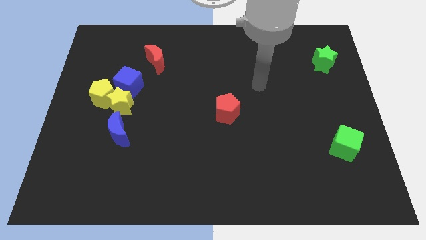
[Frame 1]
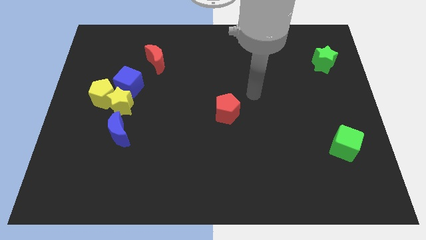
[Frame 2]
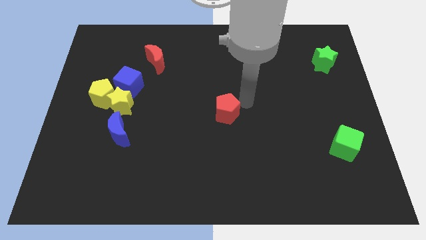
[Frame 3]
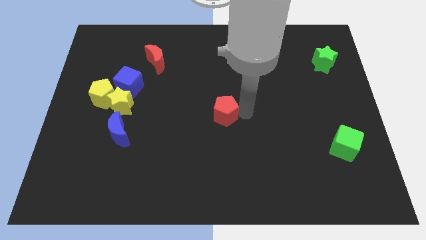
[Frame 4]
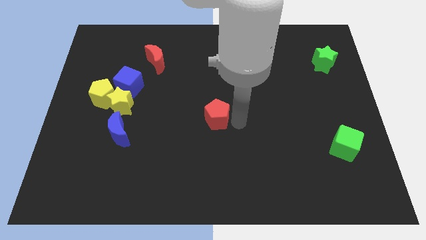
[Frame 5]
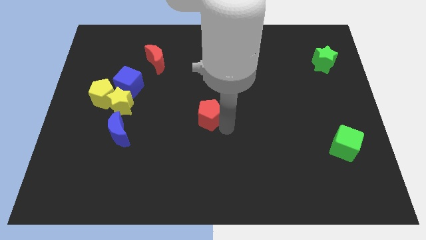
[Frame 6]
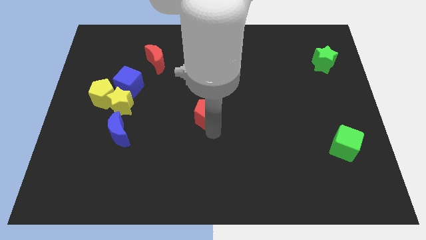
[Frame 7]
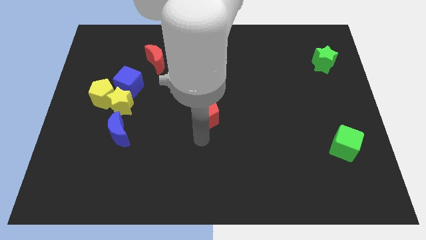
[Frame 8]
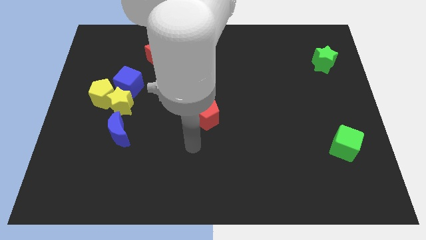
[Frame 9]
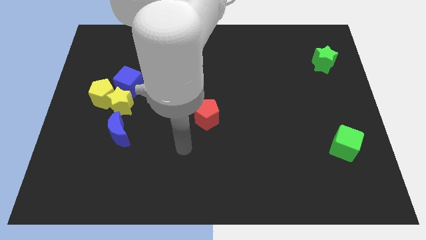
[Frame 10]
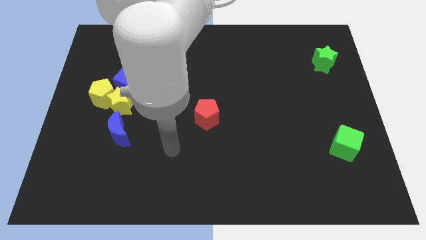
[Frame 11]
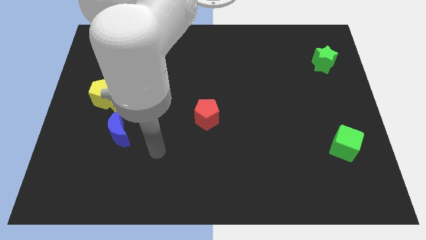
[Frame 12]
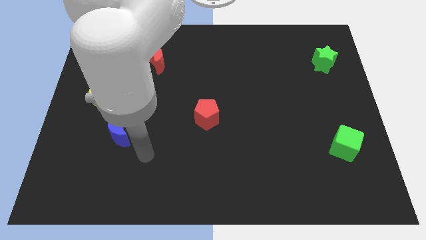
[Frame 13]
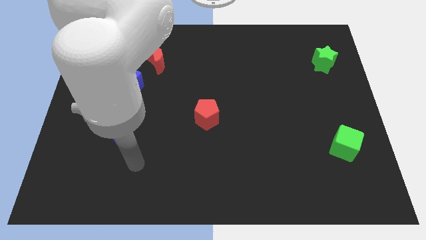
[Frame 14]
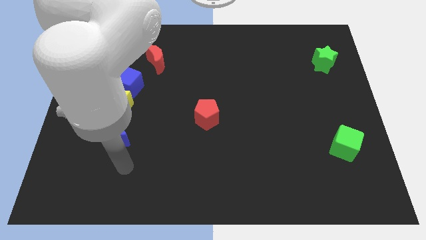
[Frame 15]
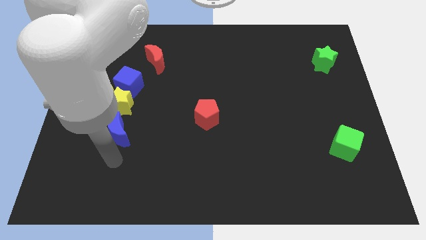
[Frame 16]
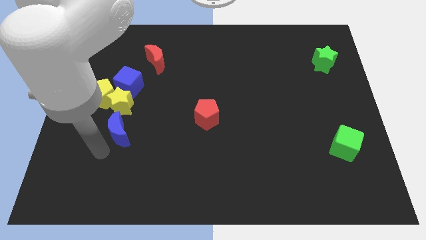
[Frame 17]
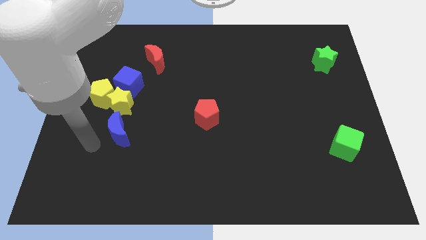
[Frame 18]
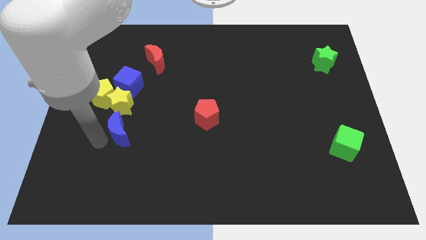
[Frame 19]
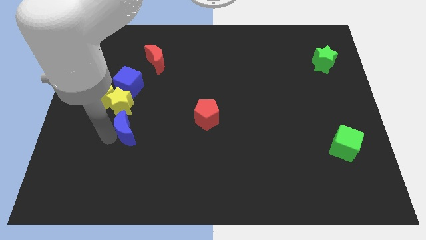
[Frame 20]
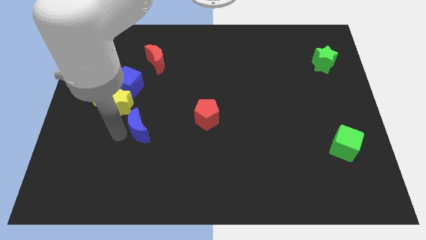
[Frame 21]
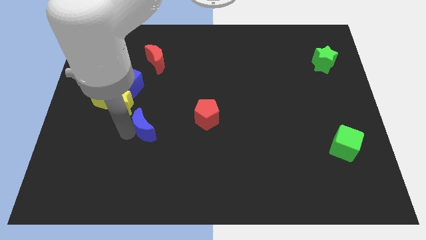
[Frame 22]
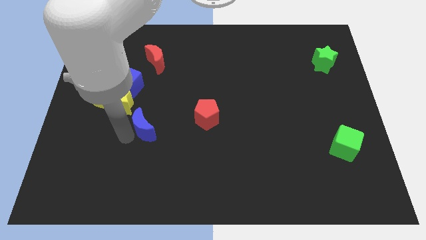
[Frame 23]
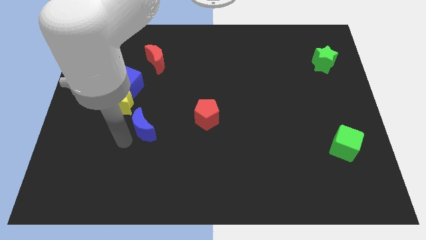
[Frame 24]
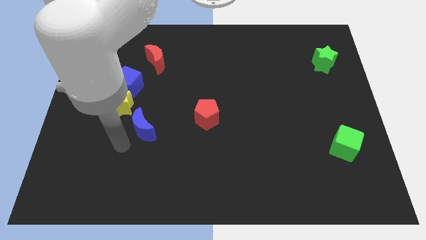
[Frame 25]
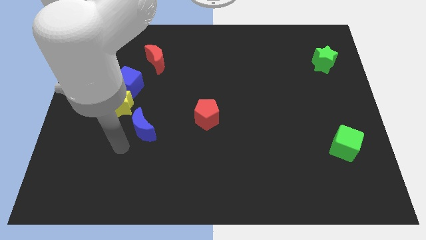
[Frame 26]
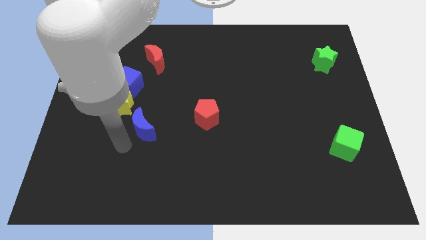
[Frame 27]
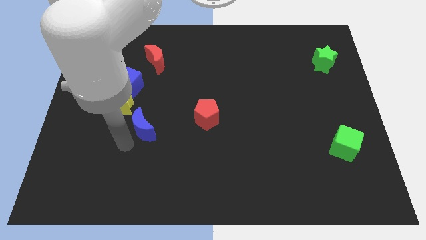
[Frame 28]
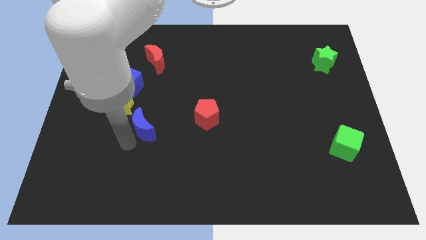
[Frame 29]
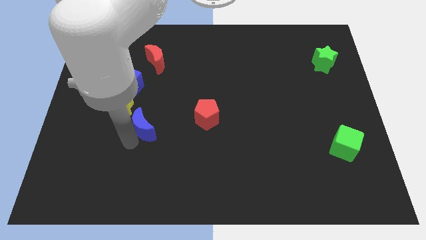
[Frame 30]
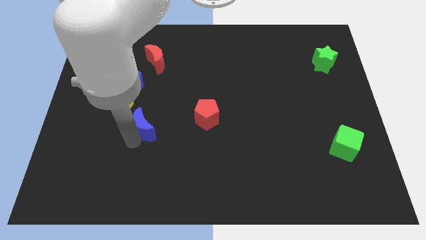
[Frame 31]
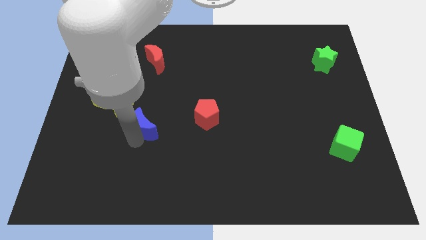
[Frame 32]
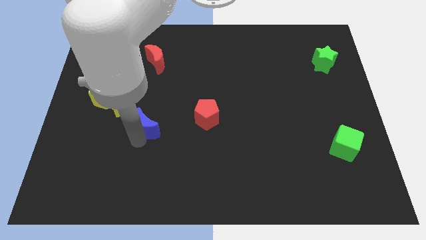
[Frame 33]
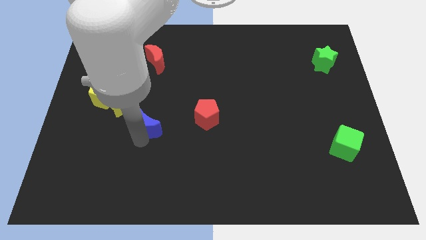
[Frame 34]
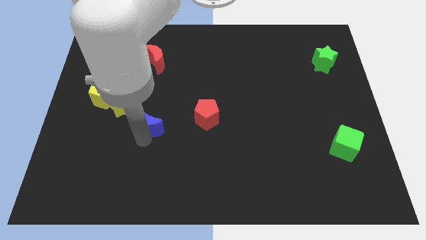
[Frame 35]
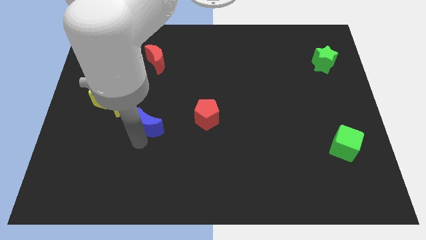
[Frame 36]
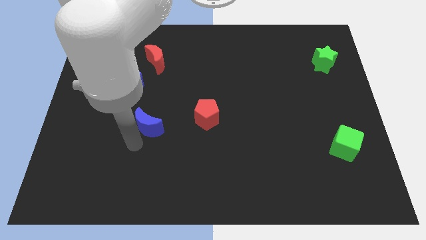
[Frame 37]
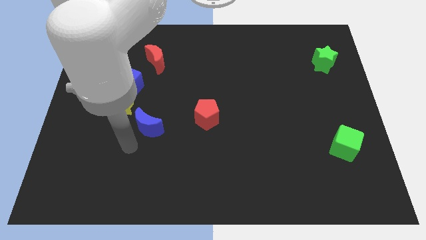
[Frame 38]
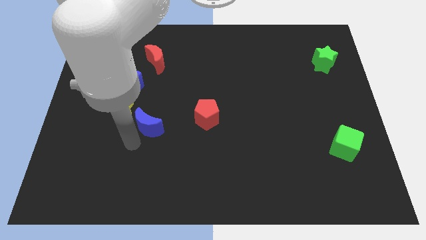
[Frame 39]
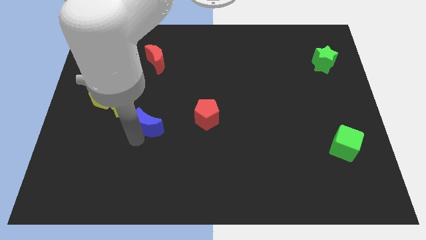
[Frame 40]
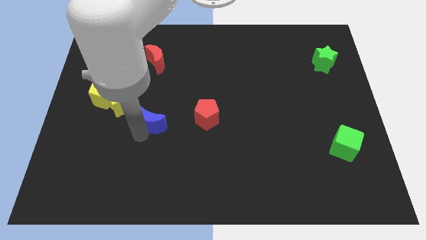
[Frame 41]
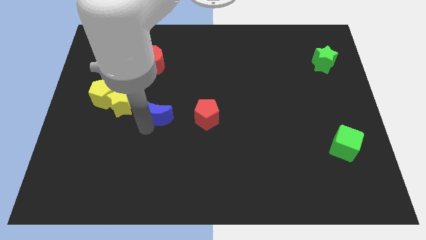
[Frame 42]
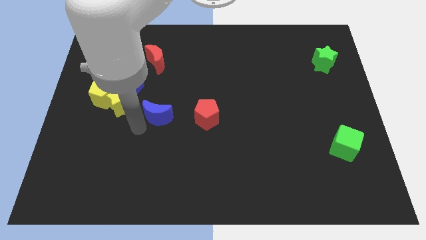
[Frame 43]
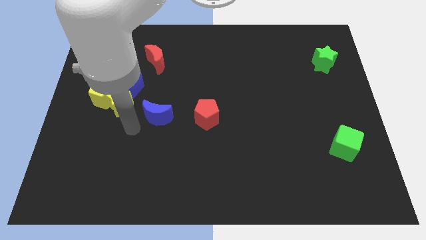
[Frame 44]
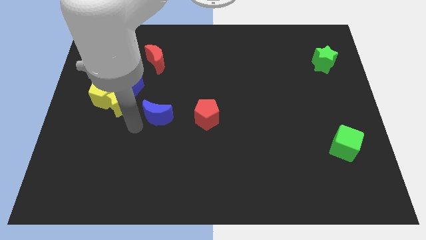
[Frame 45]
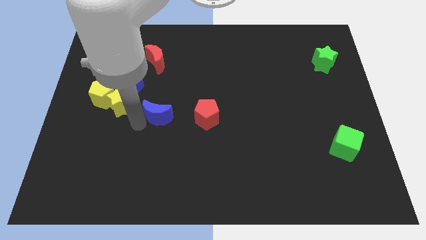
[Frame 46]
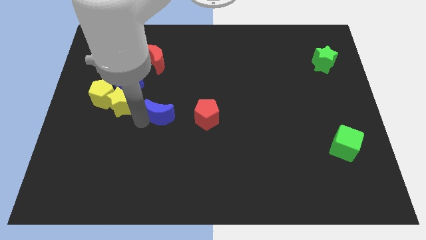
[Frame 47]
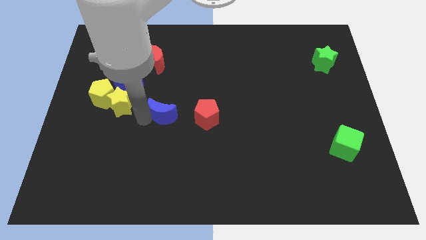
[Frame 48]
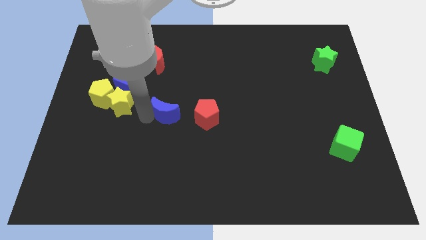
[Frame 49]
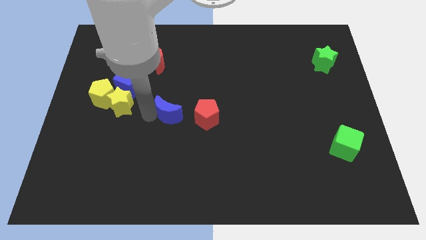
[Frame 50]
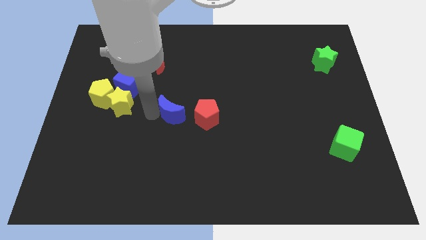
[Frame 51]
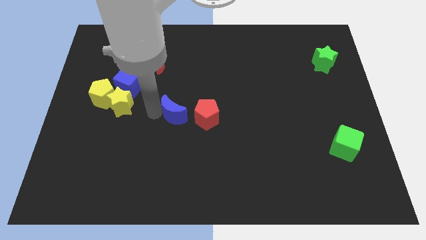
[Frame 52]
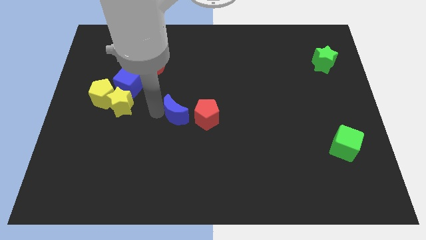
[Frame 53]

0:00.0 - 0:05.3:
move the blue moon diagonally up and to the left of the red pentagon
